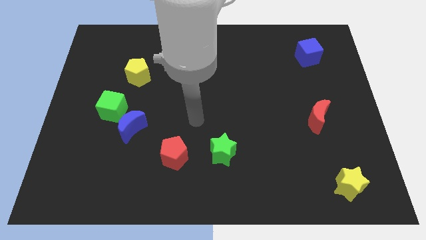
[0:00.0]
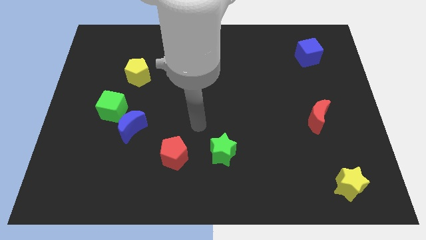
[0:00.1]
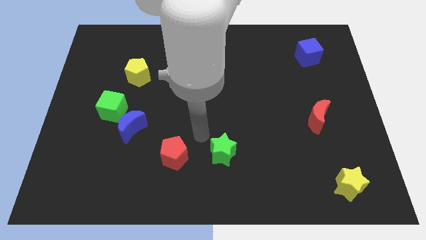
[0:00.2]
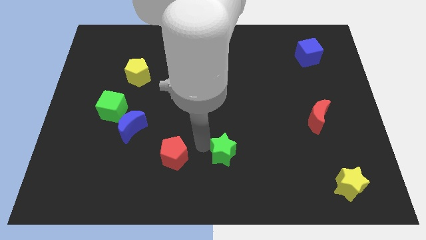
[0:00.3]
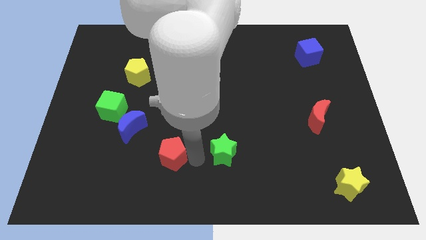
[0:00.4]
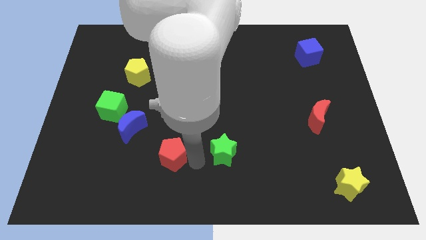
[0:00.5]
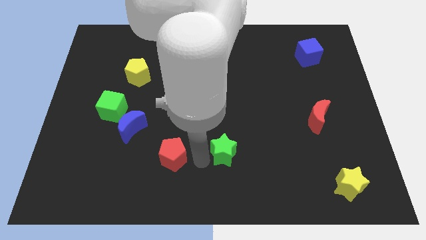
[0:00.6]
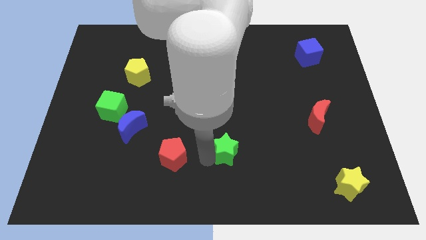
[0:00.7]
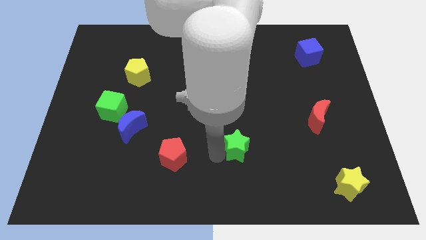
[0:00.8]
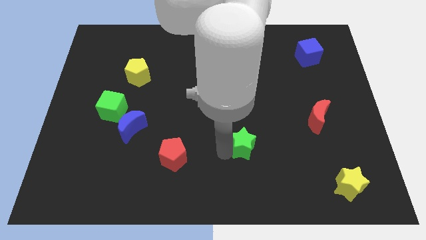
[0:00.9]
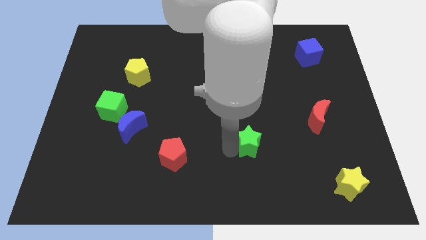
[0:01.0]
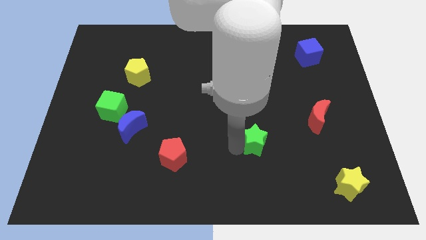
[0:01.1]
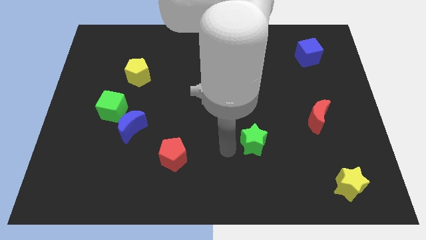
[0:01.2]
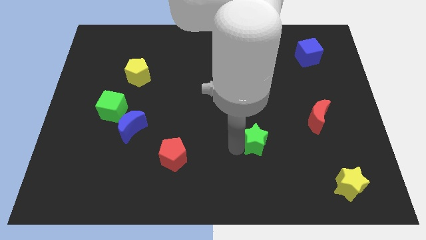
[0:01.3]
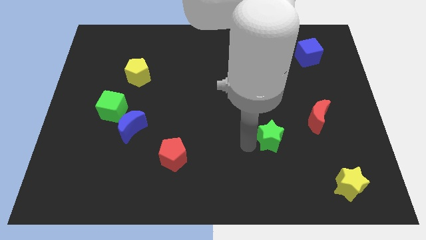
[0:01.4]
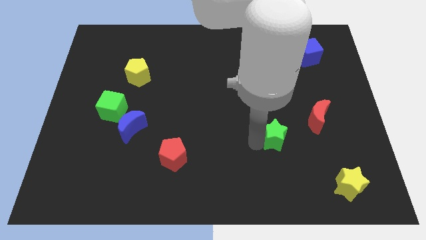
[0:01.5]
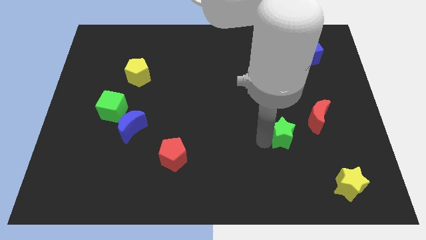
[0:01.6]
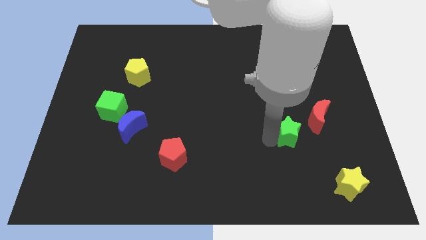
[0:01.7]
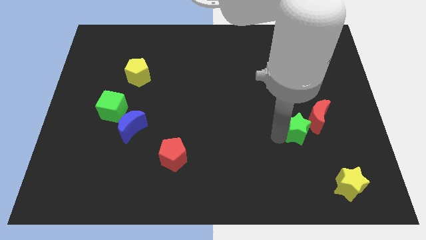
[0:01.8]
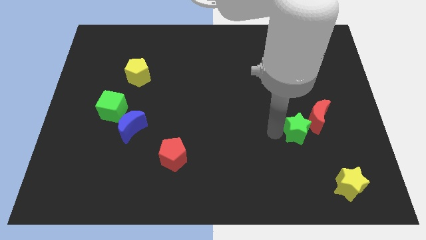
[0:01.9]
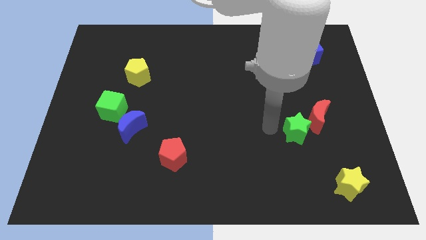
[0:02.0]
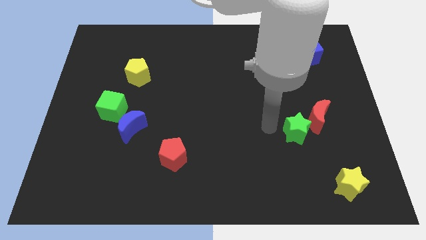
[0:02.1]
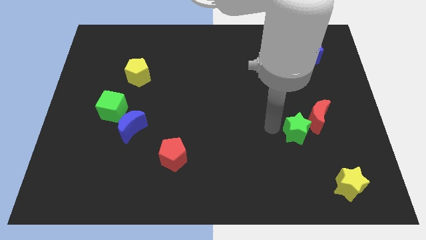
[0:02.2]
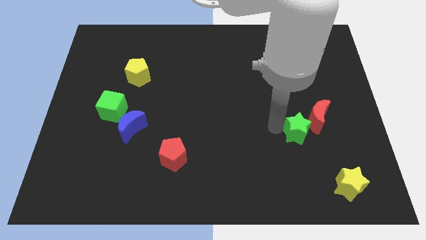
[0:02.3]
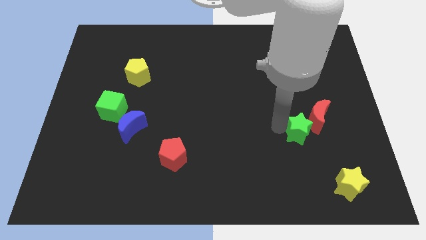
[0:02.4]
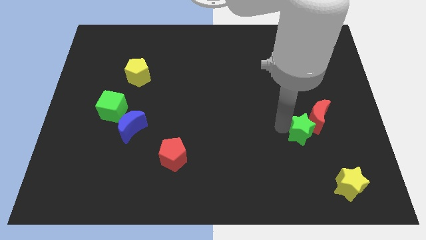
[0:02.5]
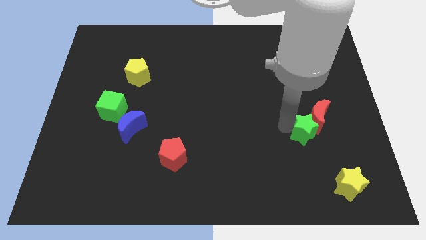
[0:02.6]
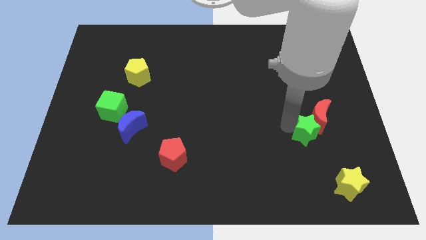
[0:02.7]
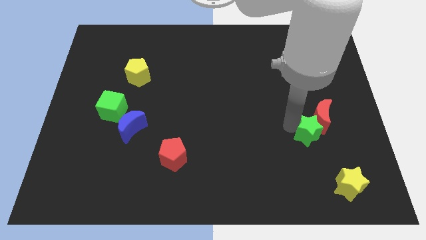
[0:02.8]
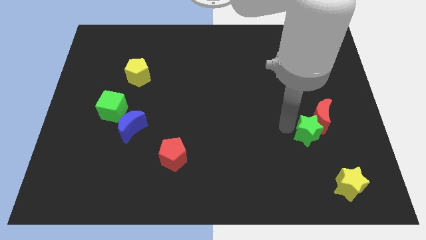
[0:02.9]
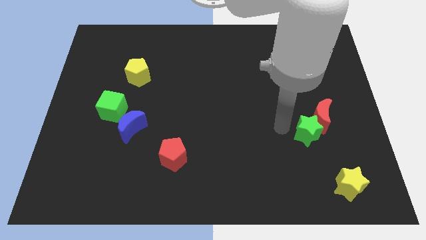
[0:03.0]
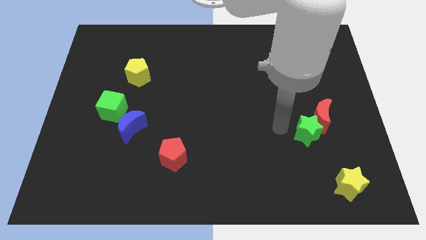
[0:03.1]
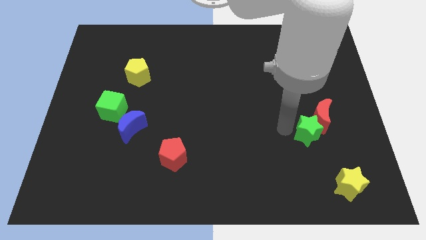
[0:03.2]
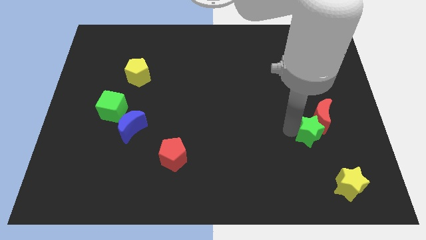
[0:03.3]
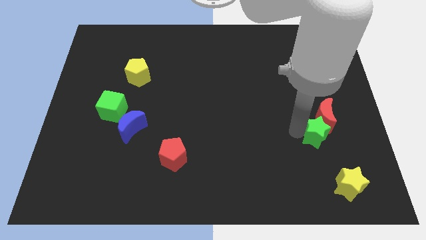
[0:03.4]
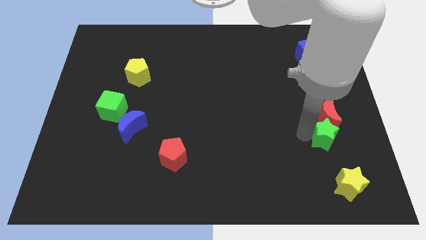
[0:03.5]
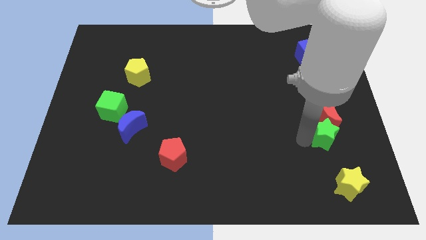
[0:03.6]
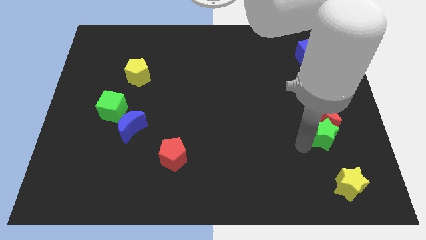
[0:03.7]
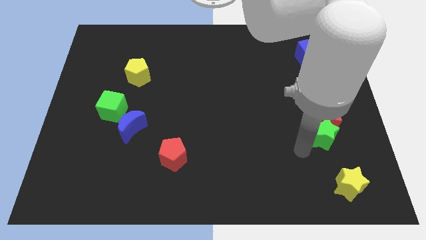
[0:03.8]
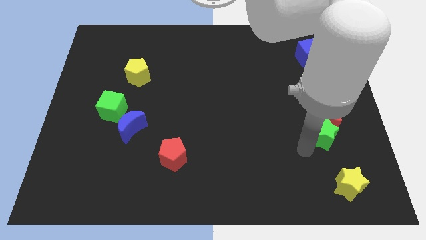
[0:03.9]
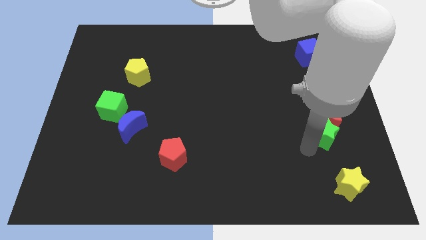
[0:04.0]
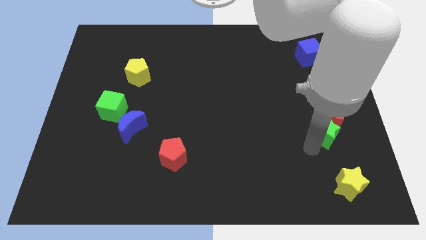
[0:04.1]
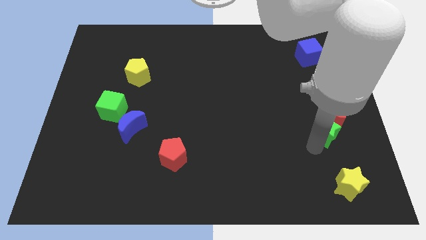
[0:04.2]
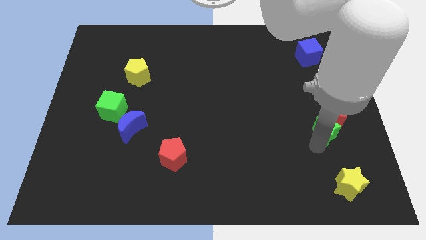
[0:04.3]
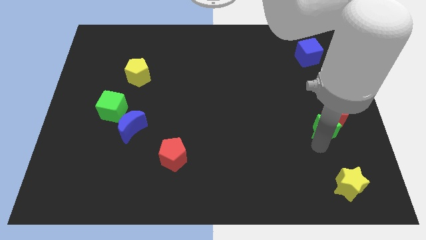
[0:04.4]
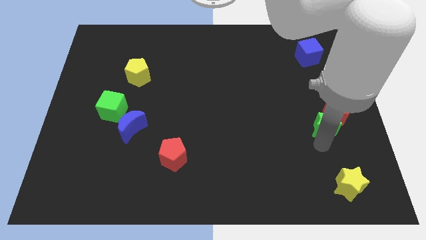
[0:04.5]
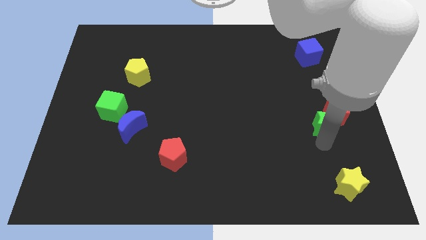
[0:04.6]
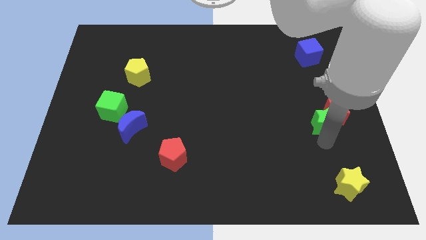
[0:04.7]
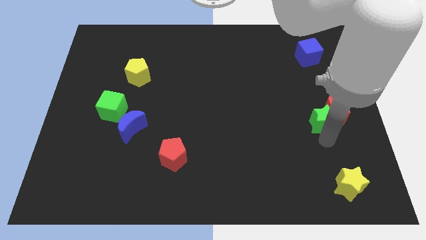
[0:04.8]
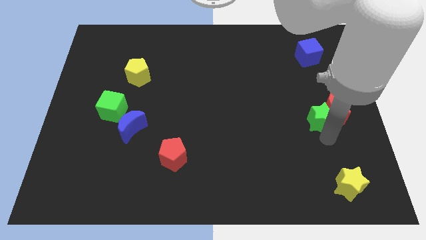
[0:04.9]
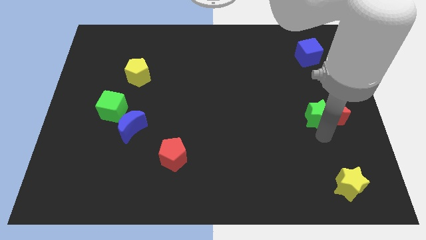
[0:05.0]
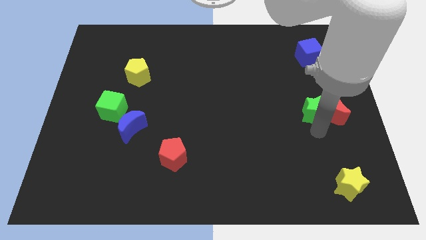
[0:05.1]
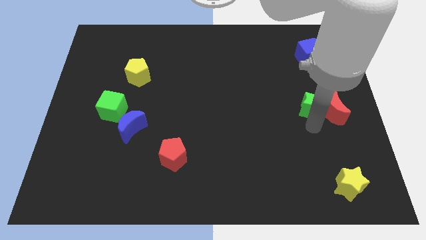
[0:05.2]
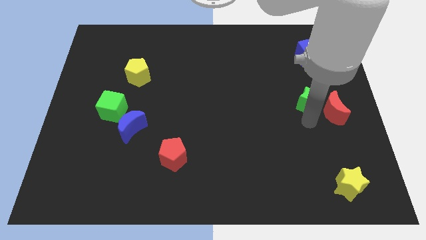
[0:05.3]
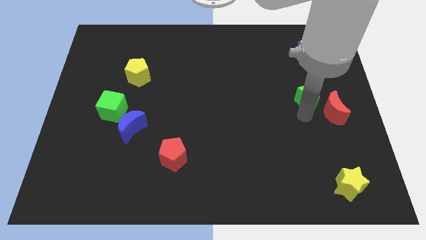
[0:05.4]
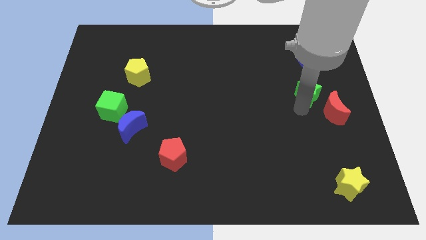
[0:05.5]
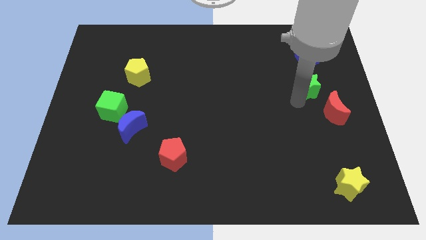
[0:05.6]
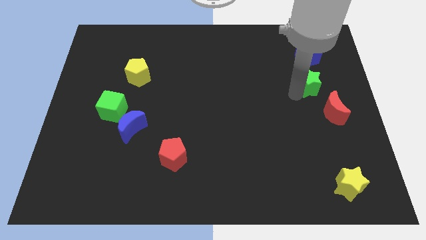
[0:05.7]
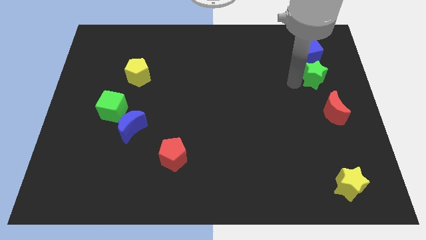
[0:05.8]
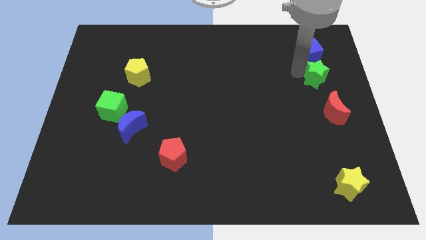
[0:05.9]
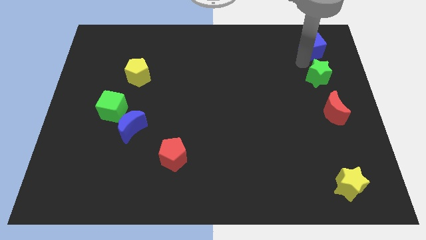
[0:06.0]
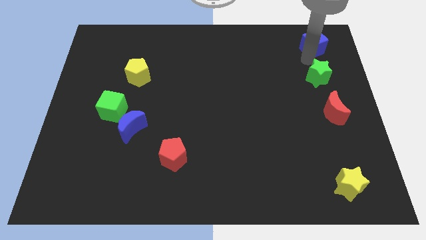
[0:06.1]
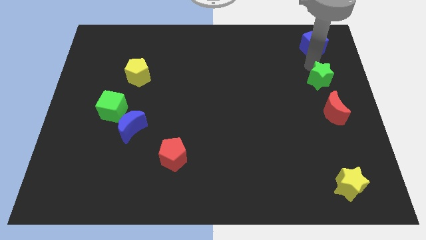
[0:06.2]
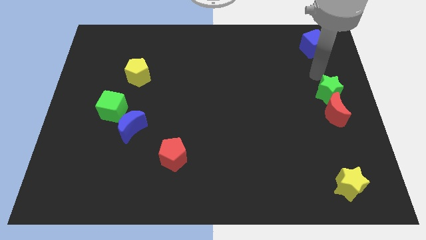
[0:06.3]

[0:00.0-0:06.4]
move the green star to the right side of the board
